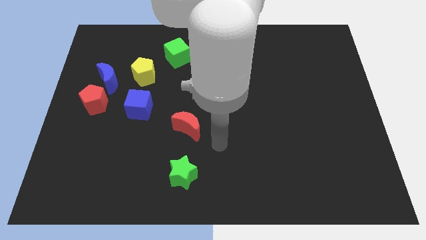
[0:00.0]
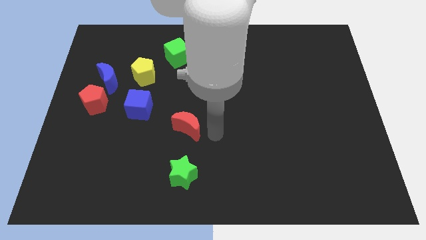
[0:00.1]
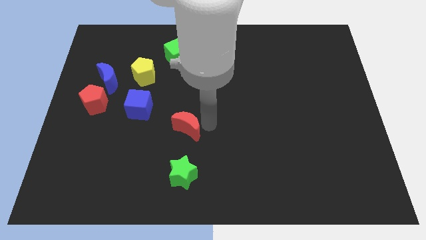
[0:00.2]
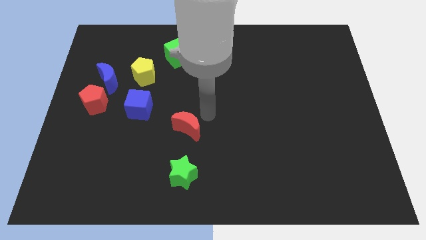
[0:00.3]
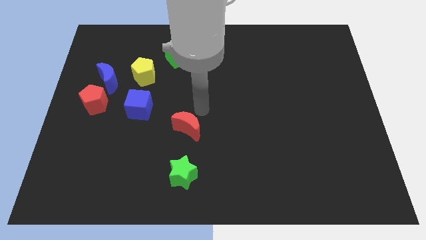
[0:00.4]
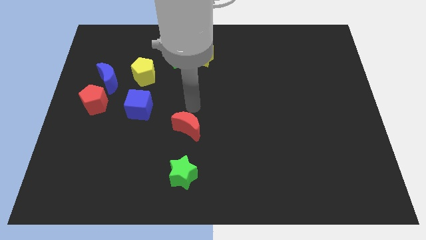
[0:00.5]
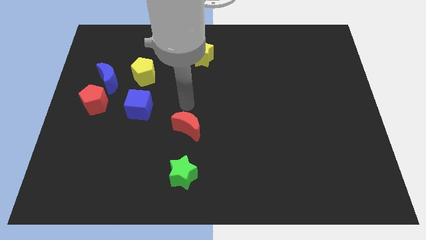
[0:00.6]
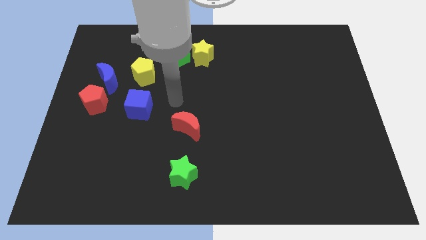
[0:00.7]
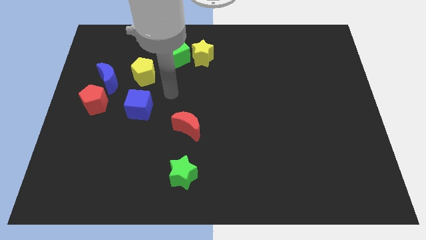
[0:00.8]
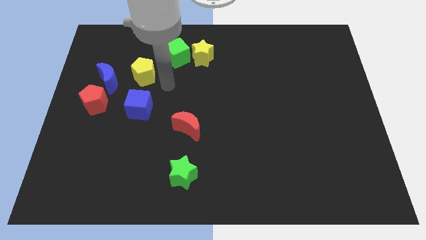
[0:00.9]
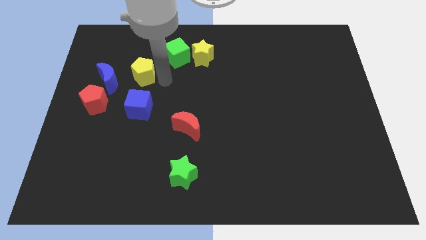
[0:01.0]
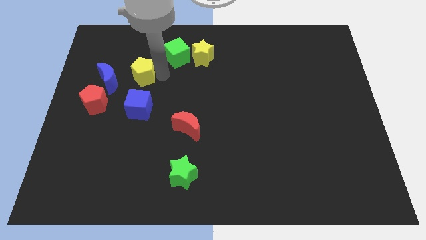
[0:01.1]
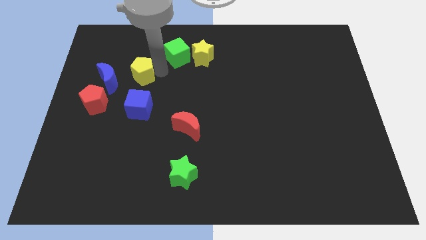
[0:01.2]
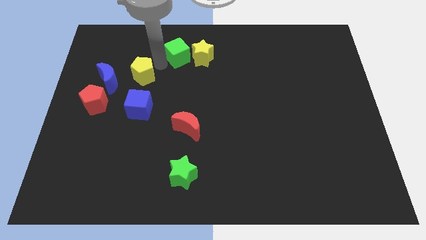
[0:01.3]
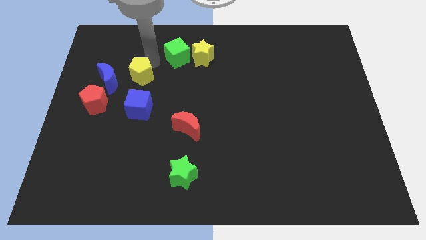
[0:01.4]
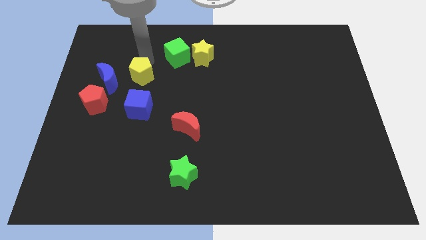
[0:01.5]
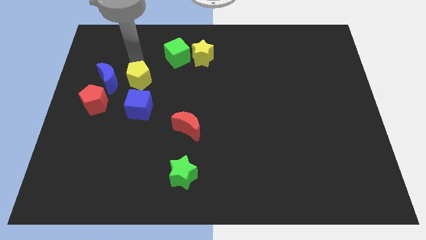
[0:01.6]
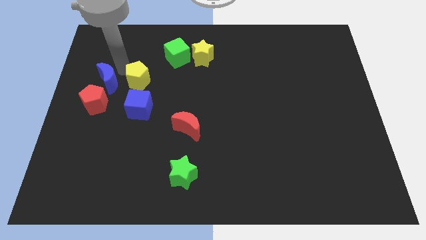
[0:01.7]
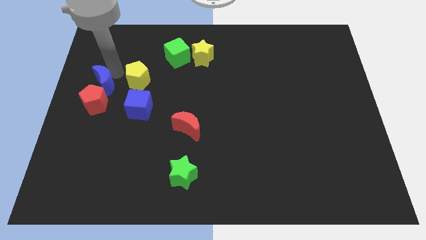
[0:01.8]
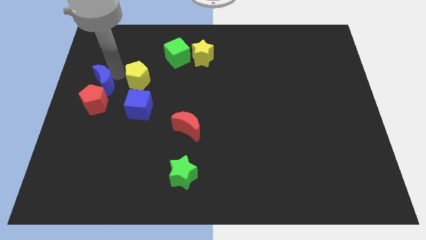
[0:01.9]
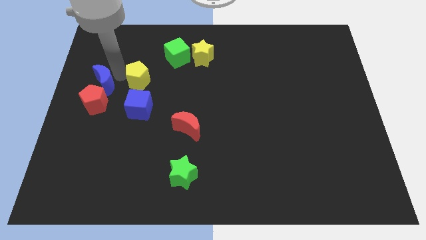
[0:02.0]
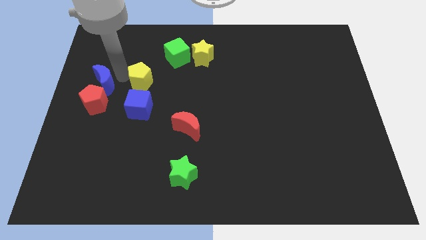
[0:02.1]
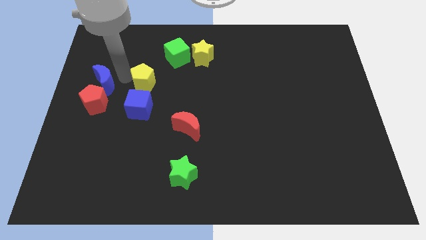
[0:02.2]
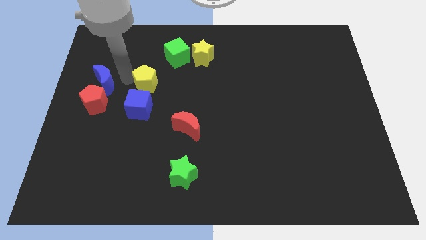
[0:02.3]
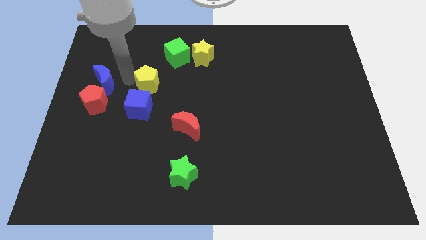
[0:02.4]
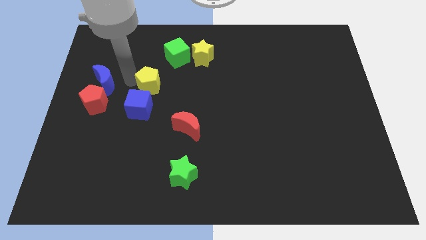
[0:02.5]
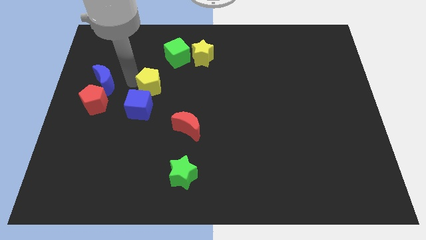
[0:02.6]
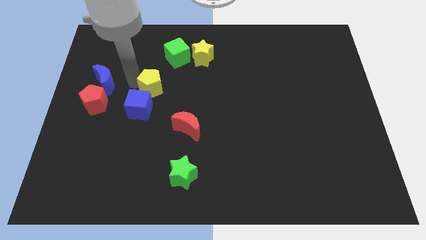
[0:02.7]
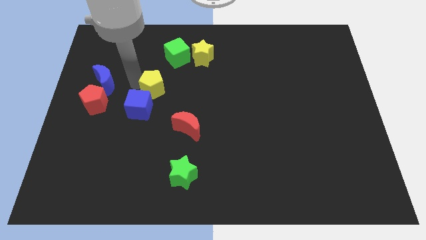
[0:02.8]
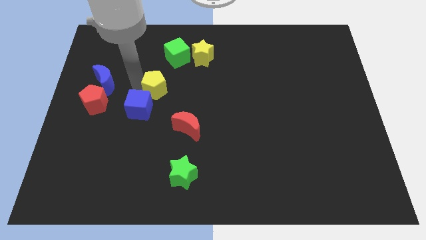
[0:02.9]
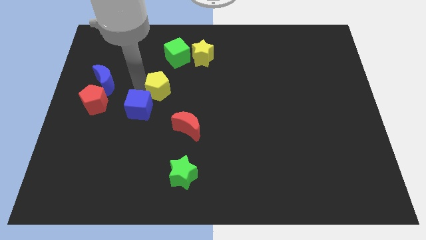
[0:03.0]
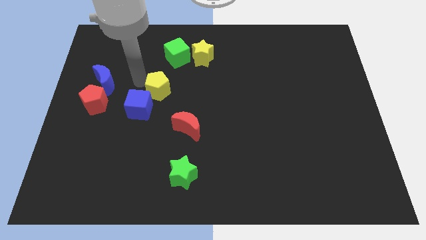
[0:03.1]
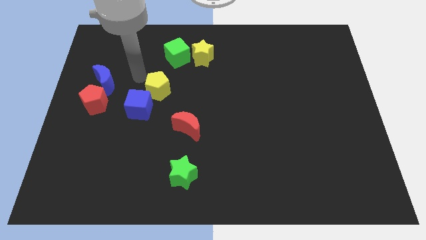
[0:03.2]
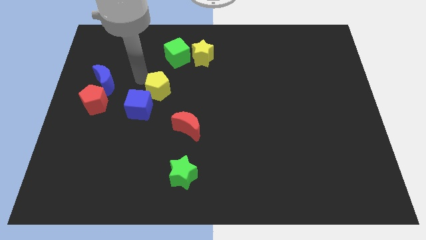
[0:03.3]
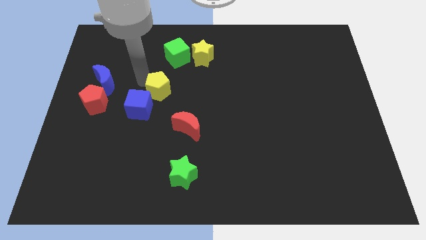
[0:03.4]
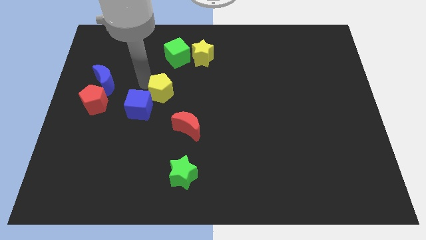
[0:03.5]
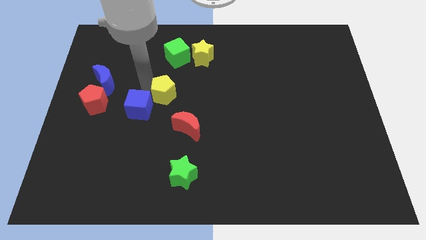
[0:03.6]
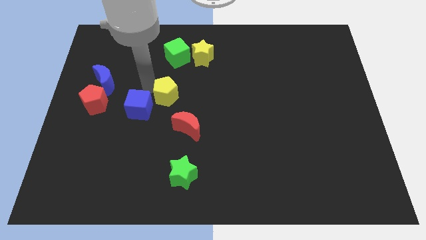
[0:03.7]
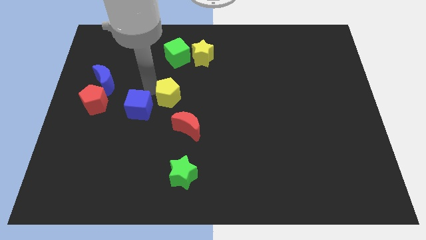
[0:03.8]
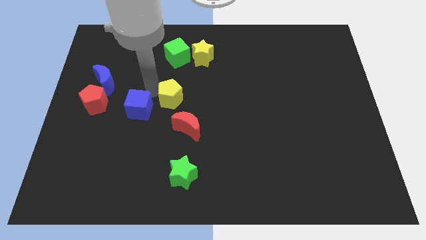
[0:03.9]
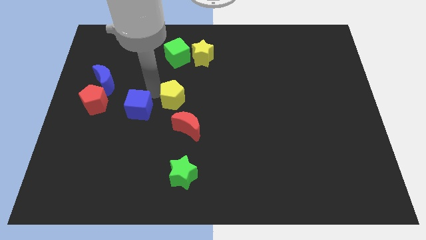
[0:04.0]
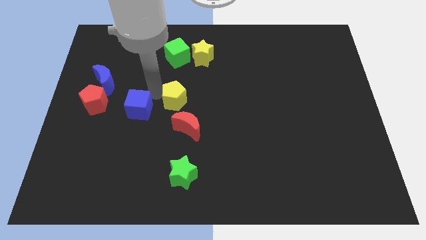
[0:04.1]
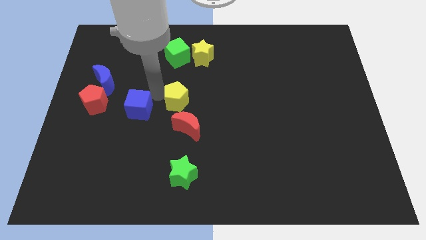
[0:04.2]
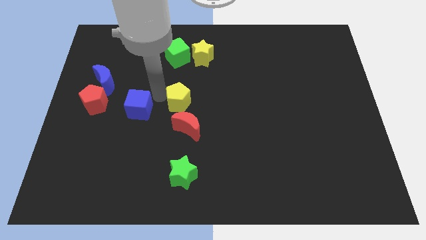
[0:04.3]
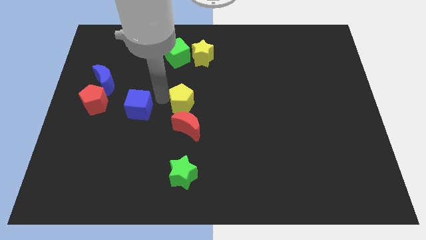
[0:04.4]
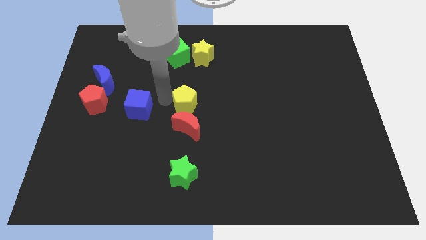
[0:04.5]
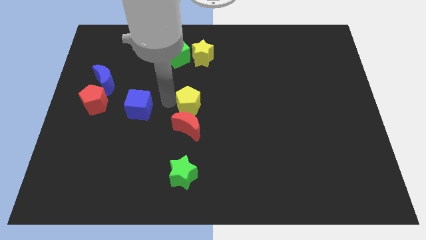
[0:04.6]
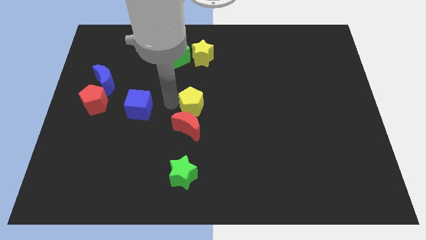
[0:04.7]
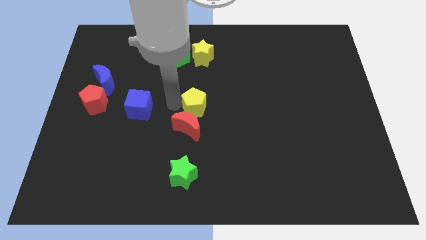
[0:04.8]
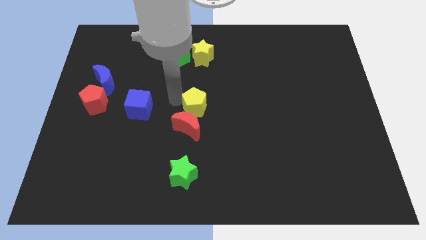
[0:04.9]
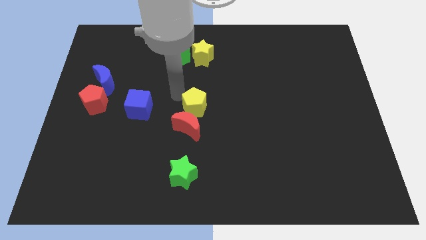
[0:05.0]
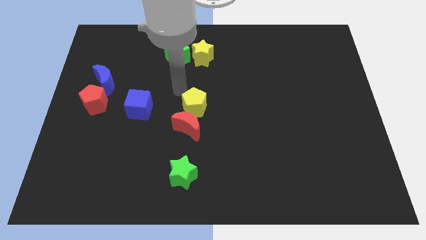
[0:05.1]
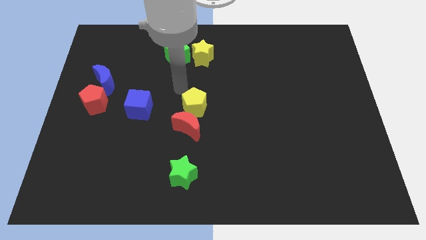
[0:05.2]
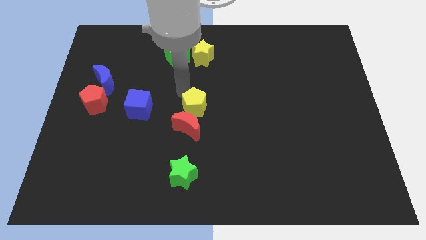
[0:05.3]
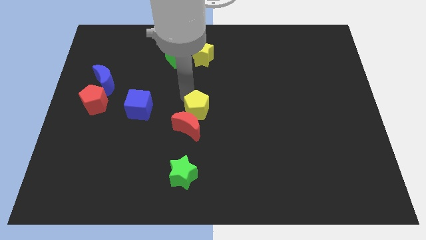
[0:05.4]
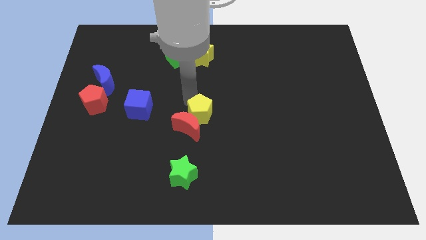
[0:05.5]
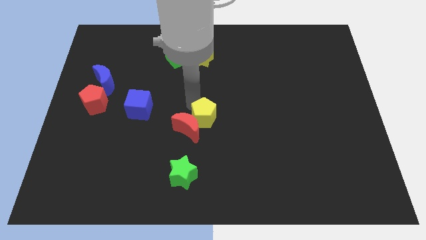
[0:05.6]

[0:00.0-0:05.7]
push the yellow pentagon diagonally down and to the right

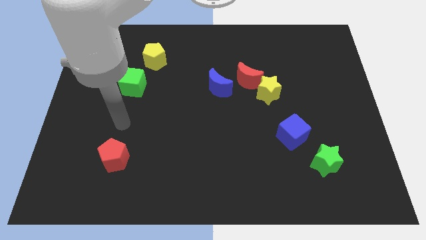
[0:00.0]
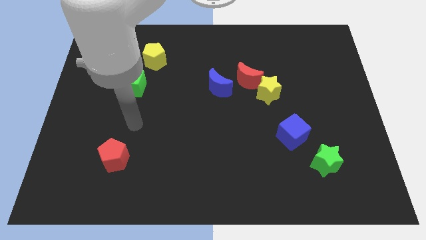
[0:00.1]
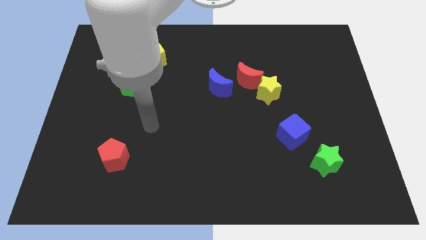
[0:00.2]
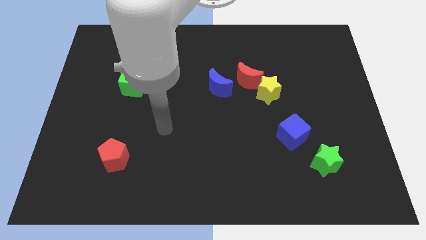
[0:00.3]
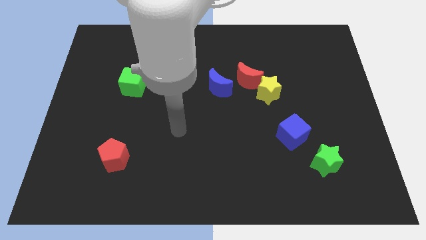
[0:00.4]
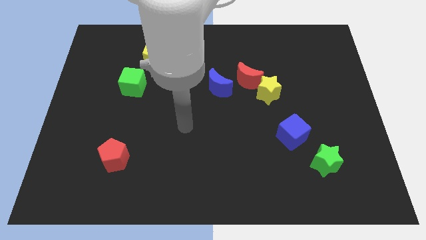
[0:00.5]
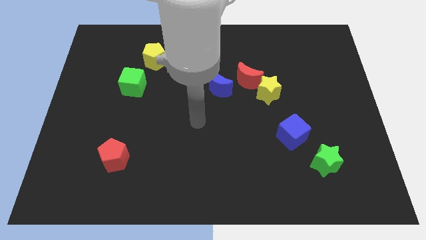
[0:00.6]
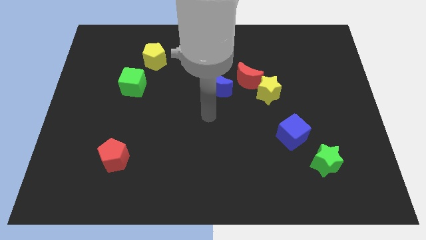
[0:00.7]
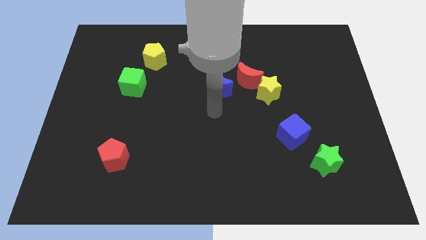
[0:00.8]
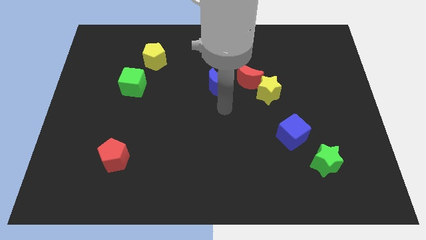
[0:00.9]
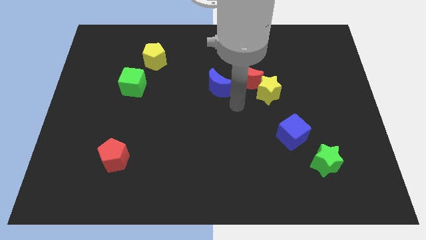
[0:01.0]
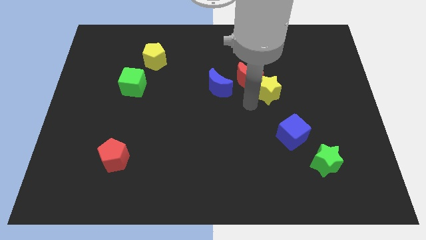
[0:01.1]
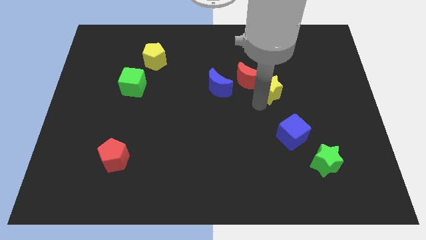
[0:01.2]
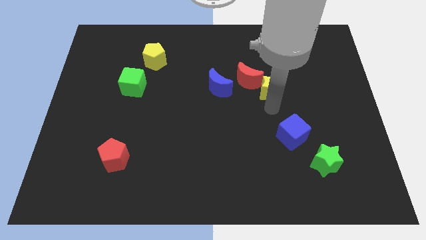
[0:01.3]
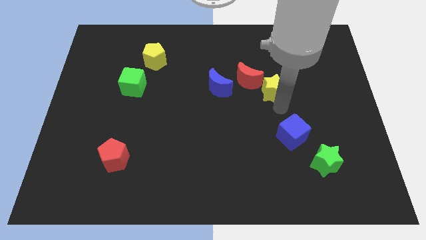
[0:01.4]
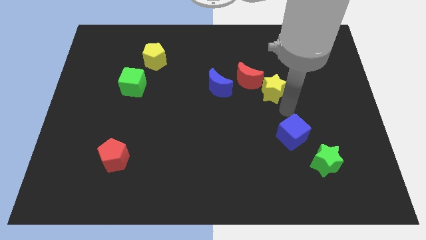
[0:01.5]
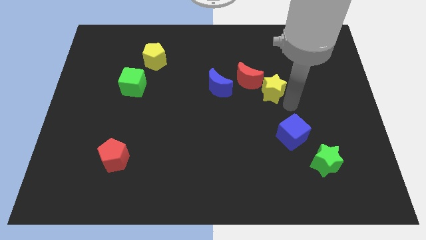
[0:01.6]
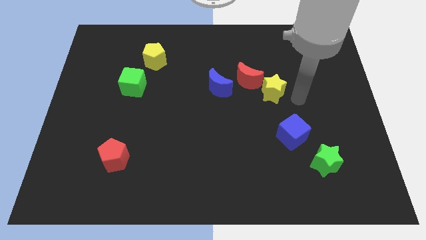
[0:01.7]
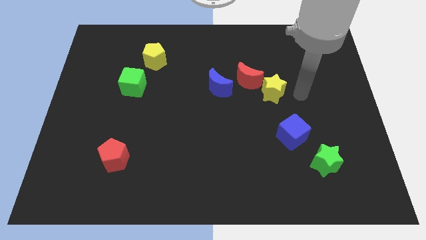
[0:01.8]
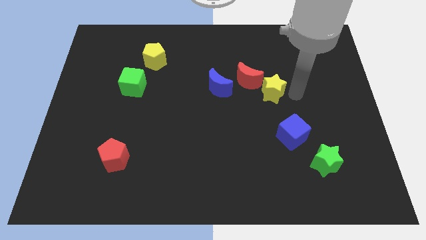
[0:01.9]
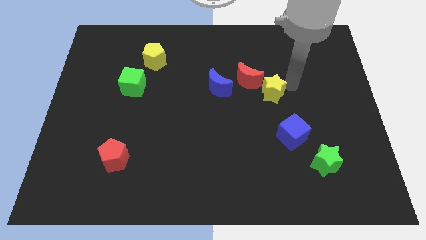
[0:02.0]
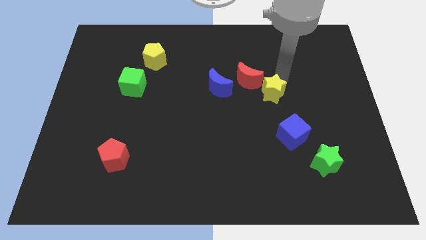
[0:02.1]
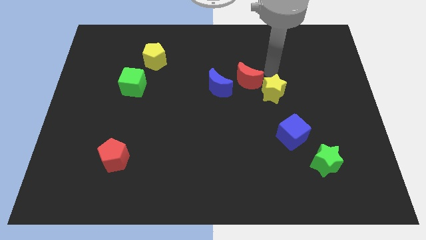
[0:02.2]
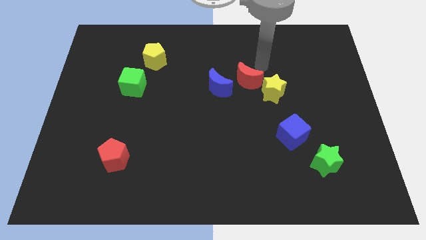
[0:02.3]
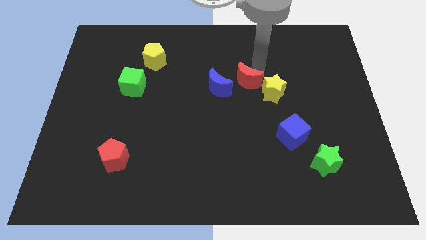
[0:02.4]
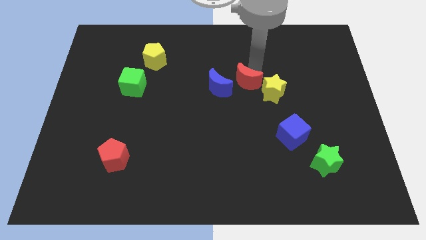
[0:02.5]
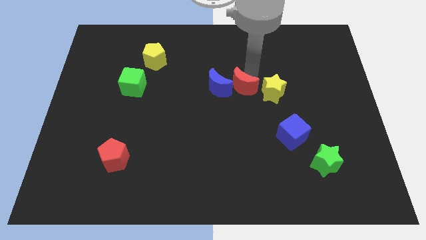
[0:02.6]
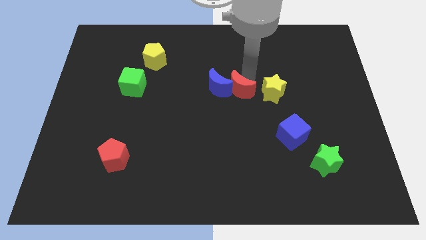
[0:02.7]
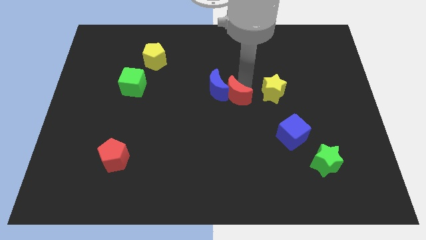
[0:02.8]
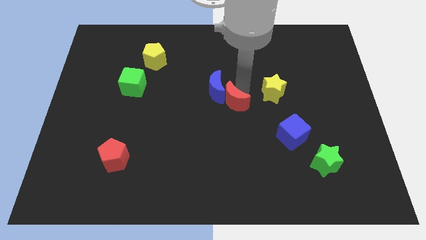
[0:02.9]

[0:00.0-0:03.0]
move the red moon slightly downwards and then to the left
